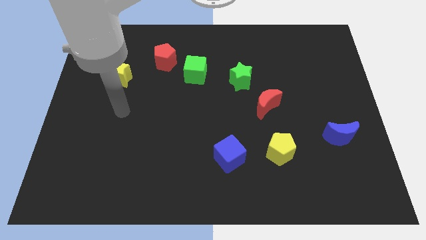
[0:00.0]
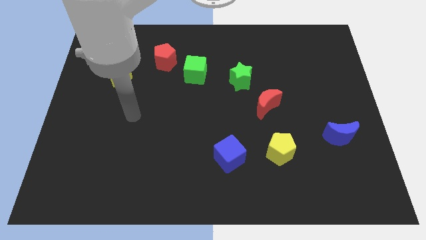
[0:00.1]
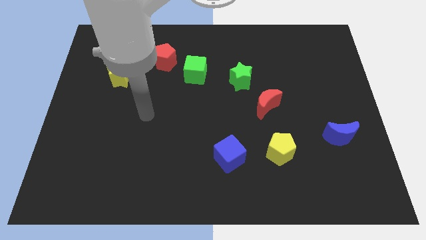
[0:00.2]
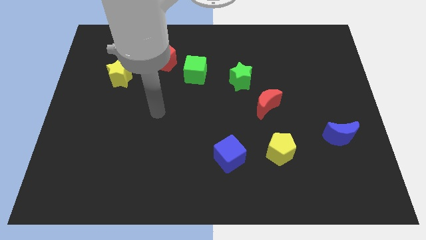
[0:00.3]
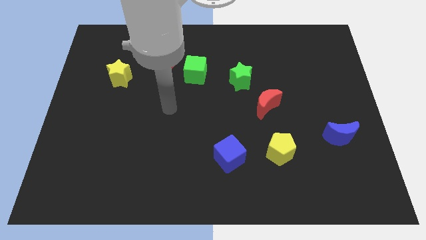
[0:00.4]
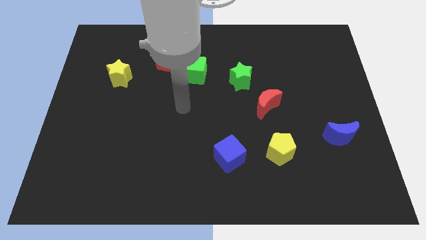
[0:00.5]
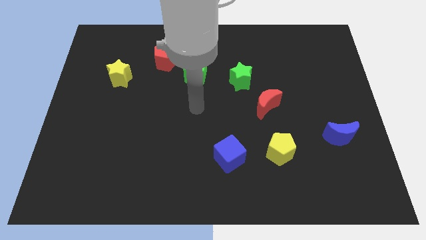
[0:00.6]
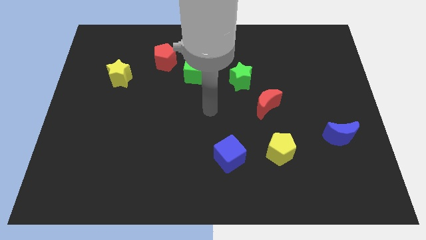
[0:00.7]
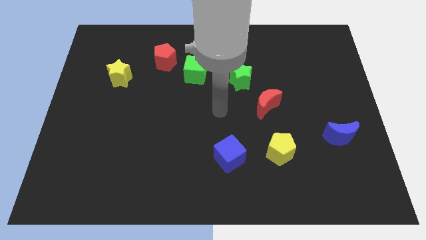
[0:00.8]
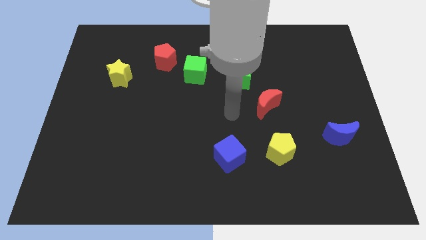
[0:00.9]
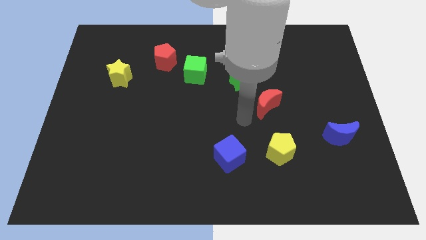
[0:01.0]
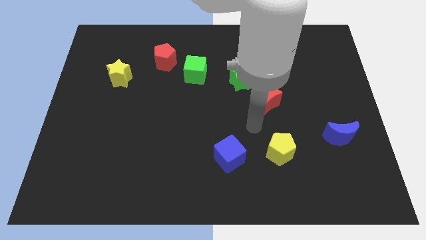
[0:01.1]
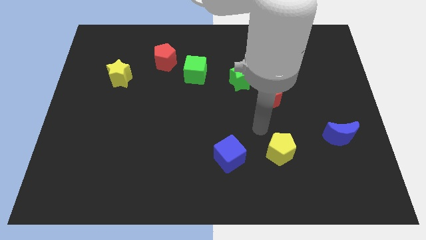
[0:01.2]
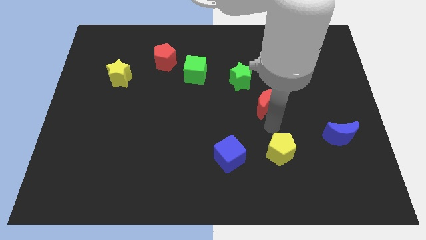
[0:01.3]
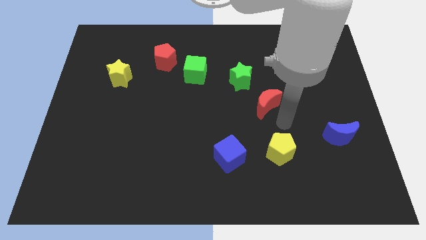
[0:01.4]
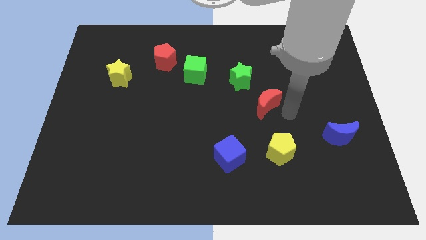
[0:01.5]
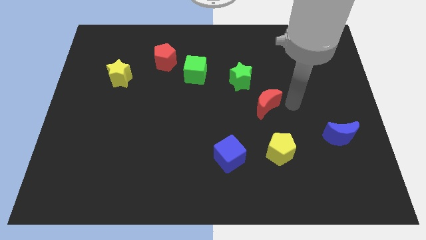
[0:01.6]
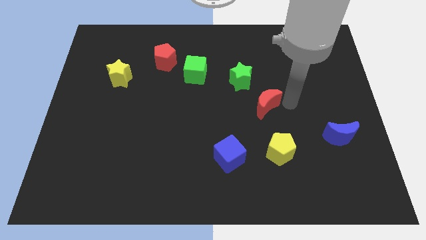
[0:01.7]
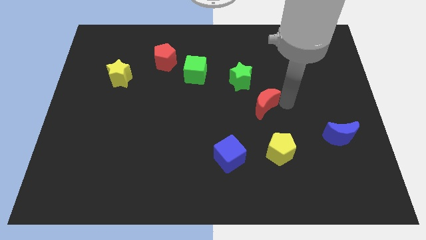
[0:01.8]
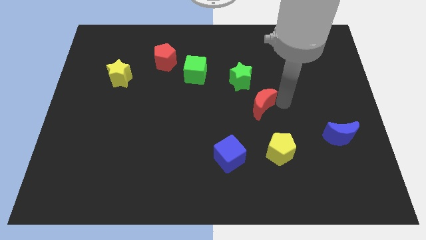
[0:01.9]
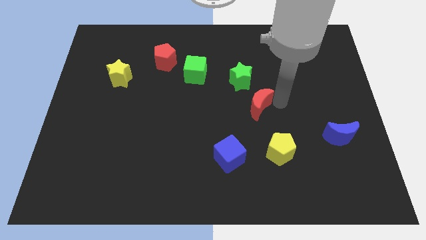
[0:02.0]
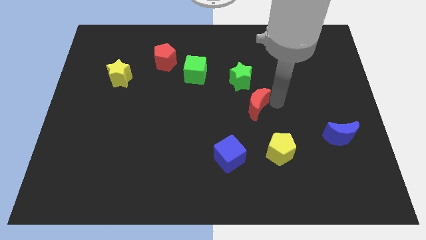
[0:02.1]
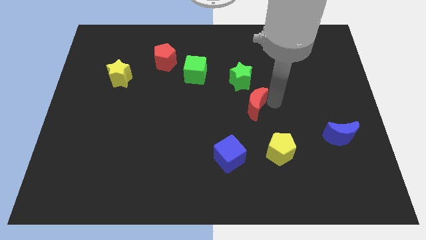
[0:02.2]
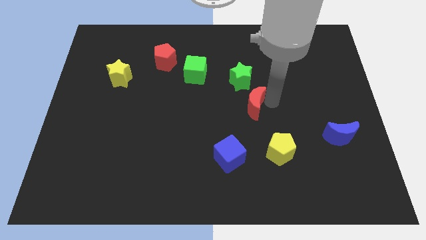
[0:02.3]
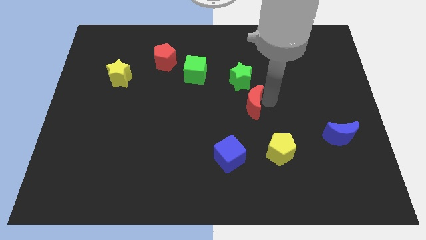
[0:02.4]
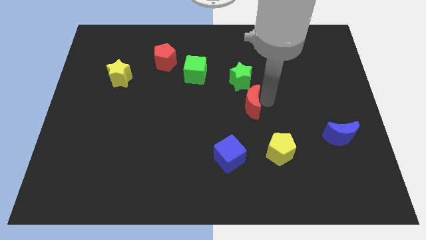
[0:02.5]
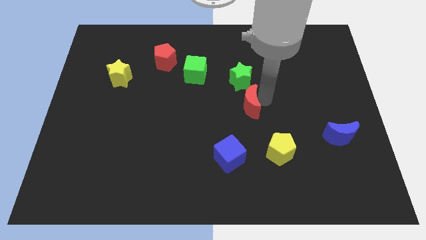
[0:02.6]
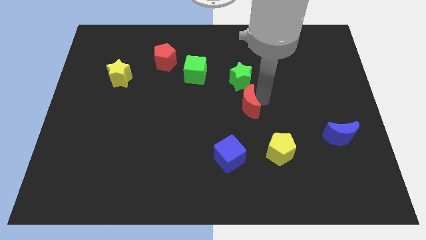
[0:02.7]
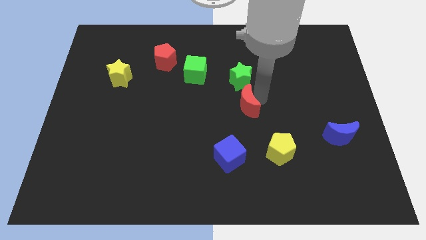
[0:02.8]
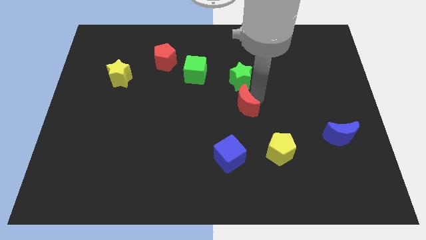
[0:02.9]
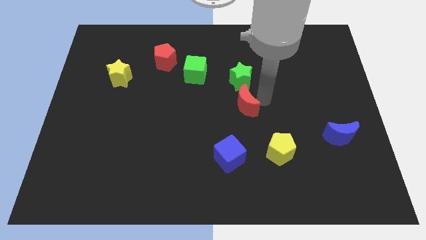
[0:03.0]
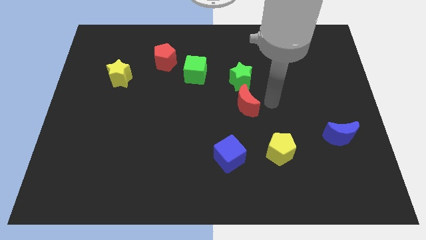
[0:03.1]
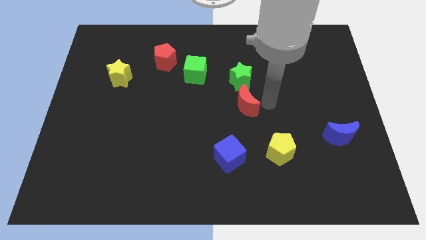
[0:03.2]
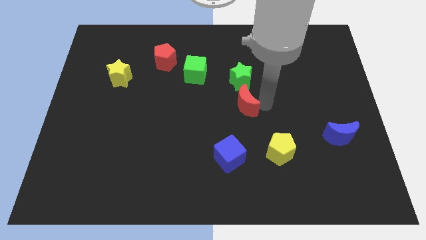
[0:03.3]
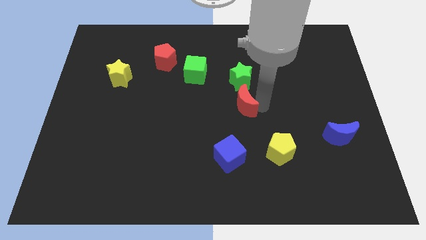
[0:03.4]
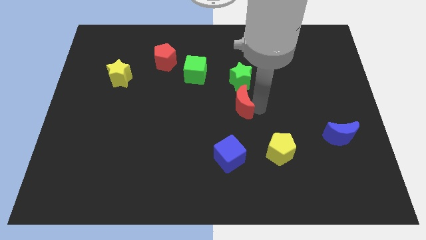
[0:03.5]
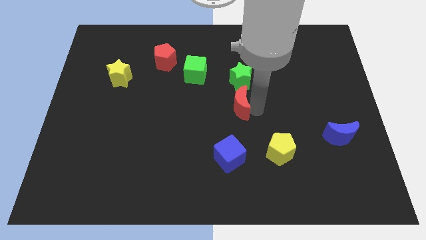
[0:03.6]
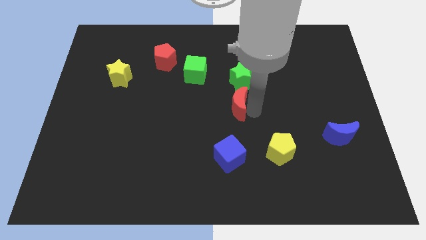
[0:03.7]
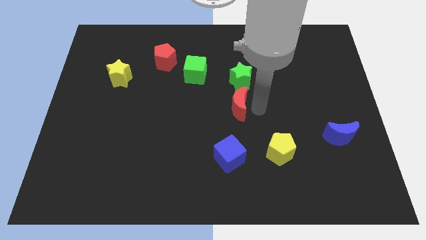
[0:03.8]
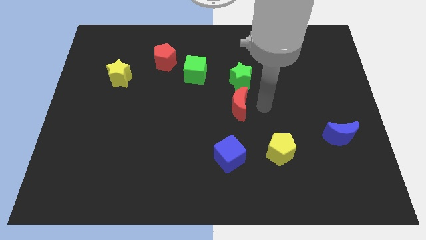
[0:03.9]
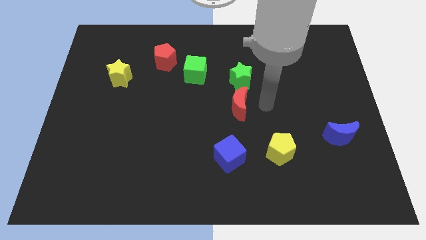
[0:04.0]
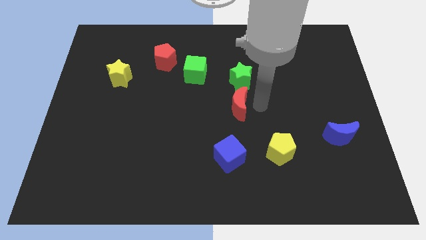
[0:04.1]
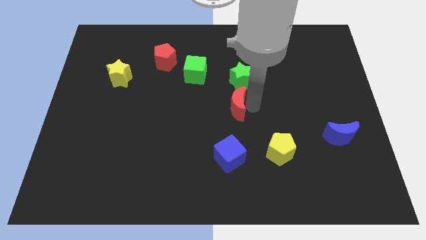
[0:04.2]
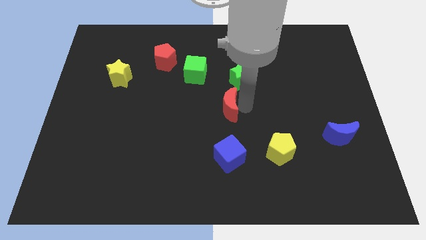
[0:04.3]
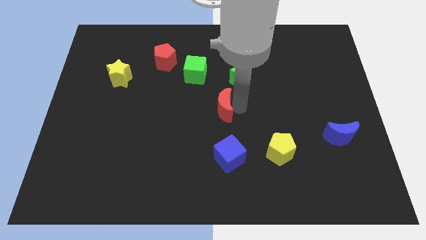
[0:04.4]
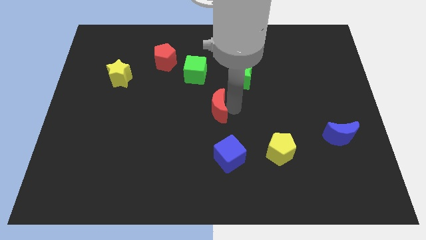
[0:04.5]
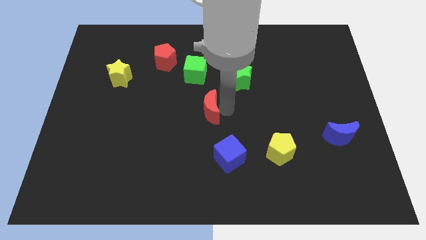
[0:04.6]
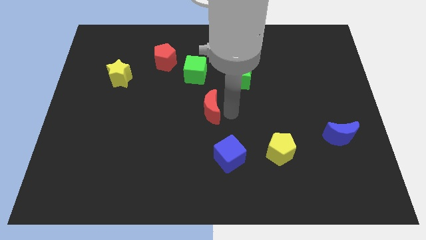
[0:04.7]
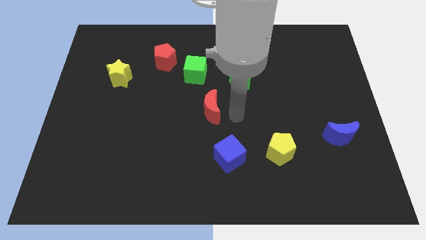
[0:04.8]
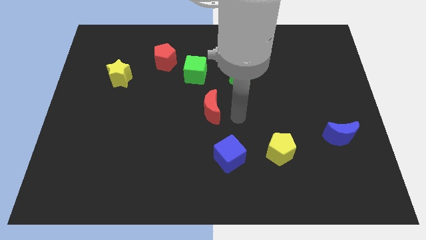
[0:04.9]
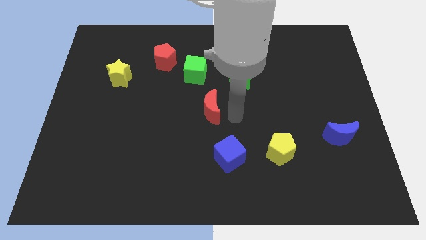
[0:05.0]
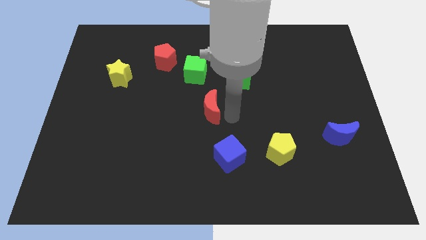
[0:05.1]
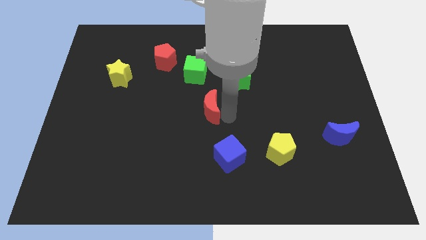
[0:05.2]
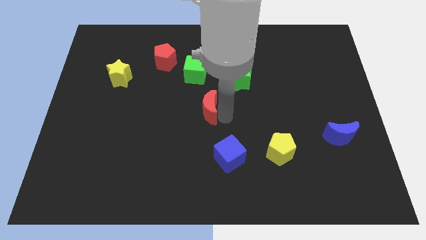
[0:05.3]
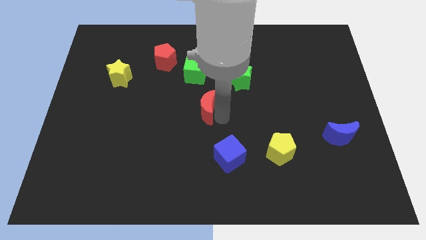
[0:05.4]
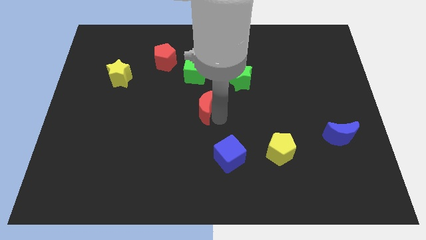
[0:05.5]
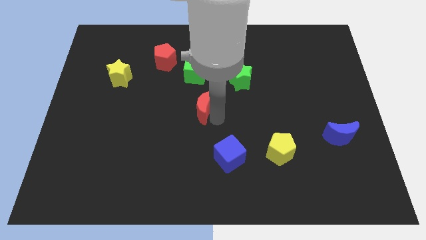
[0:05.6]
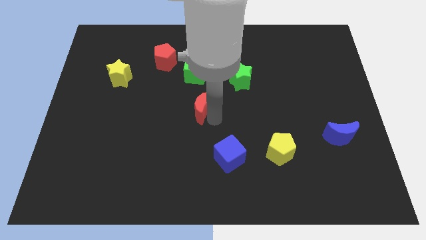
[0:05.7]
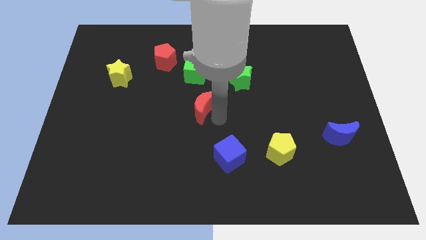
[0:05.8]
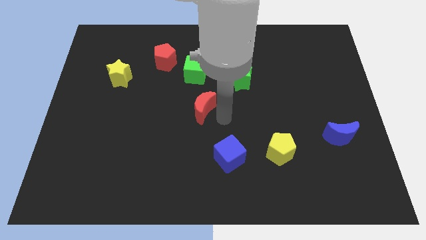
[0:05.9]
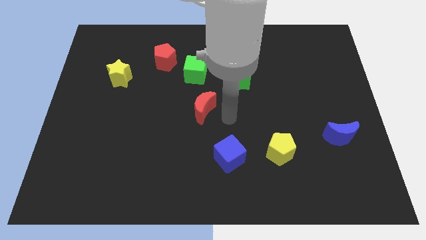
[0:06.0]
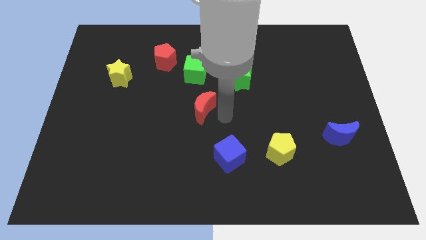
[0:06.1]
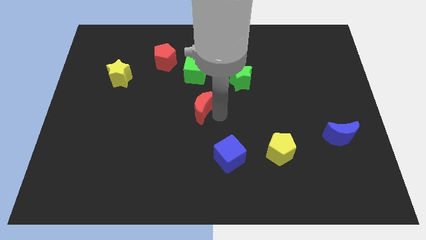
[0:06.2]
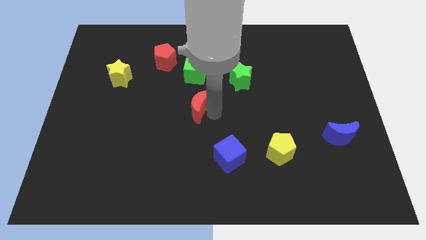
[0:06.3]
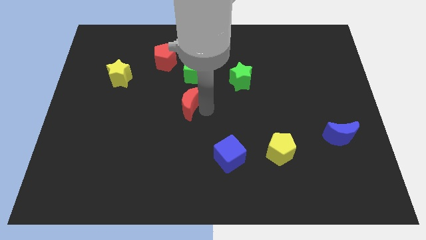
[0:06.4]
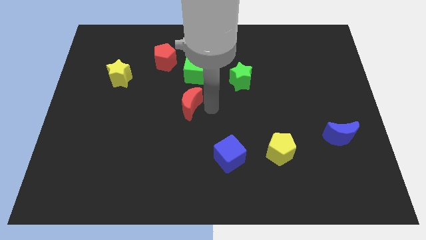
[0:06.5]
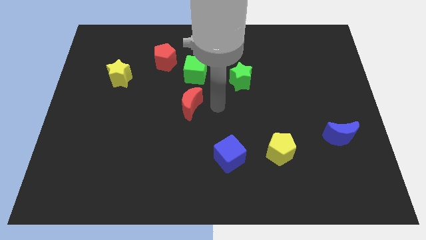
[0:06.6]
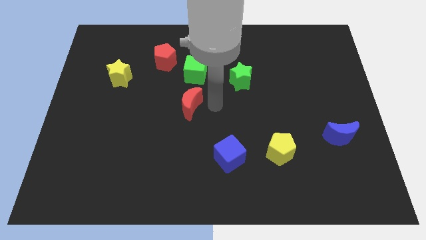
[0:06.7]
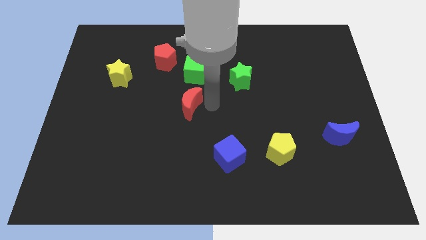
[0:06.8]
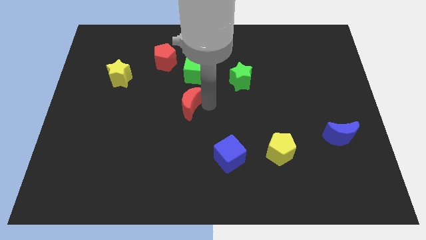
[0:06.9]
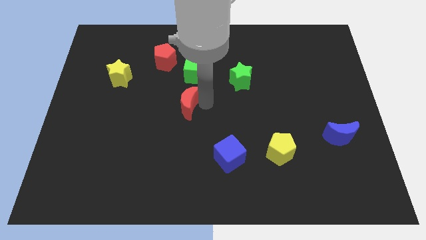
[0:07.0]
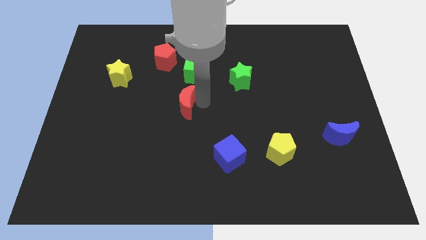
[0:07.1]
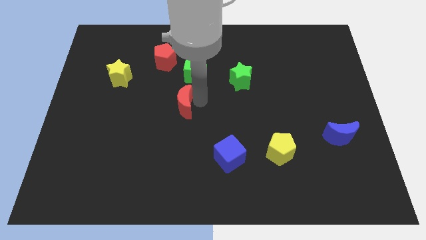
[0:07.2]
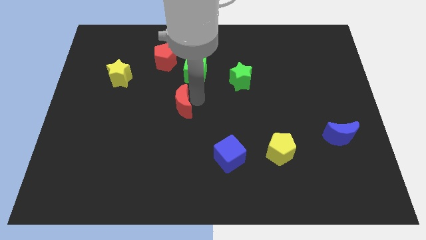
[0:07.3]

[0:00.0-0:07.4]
move the red moon to the left

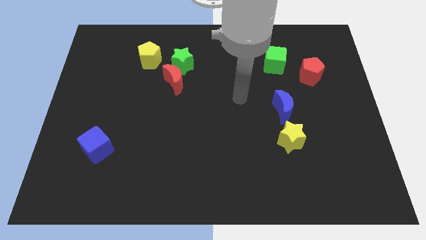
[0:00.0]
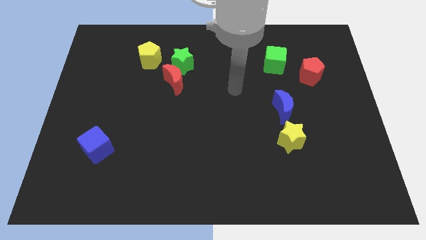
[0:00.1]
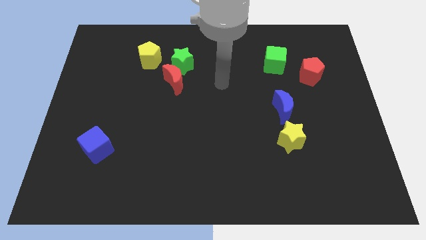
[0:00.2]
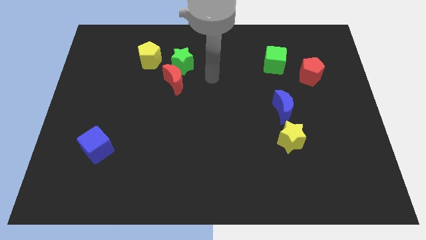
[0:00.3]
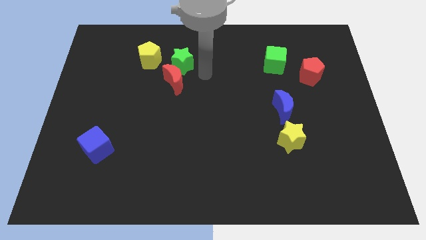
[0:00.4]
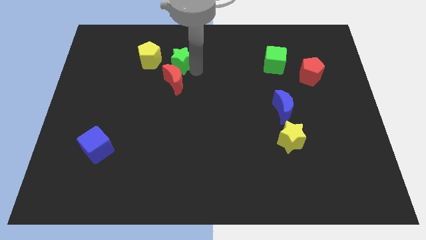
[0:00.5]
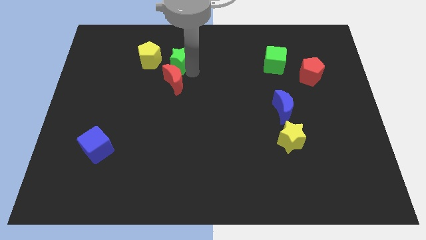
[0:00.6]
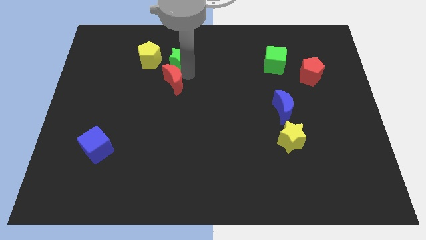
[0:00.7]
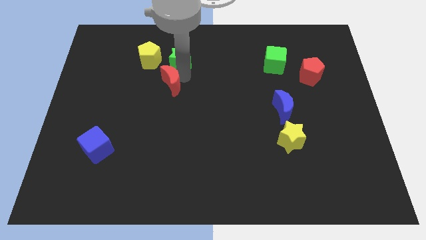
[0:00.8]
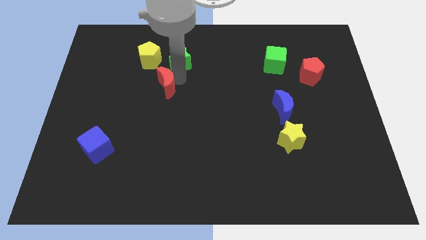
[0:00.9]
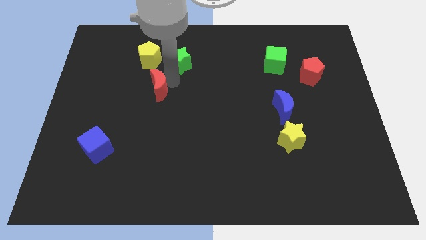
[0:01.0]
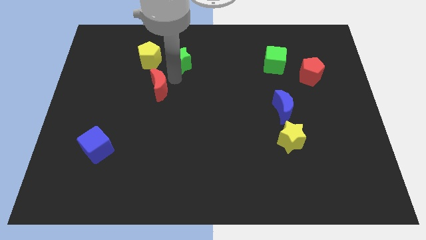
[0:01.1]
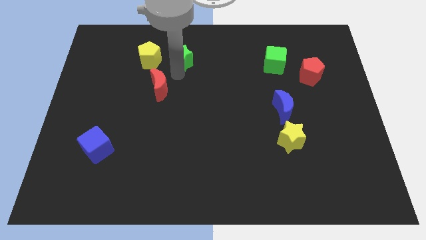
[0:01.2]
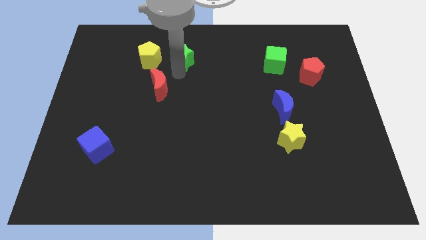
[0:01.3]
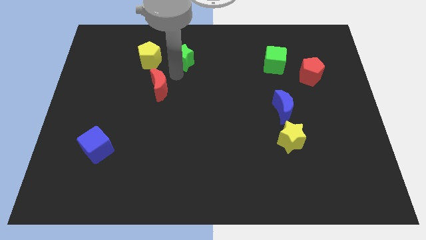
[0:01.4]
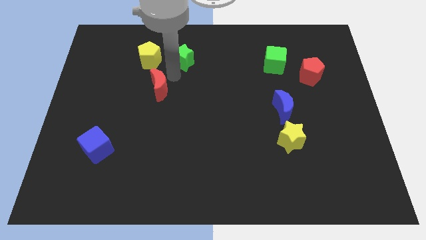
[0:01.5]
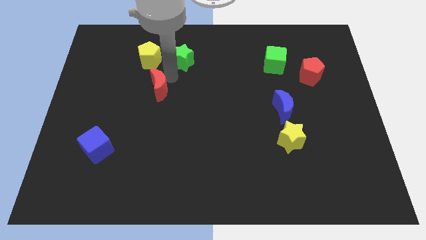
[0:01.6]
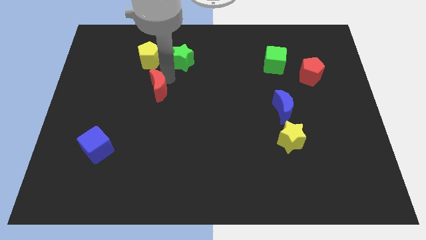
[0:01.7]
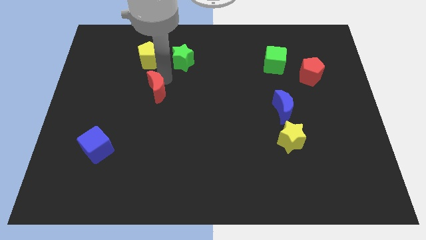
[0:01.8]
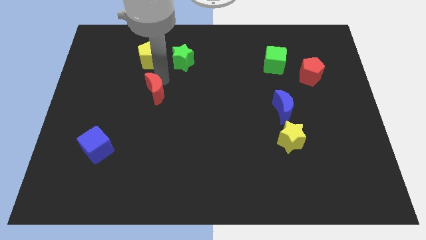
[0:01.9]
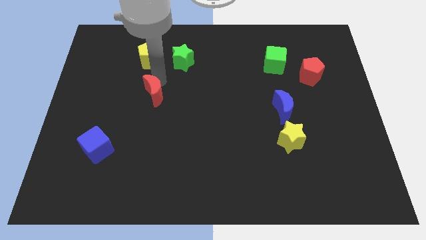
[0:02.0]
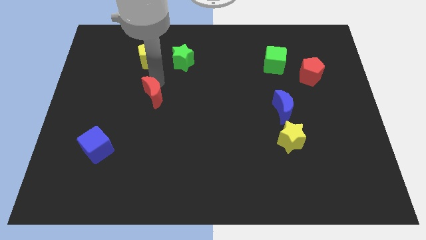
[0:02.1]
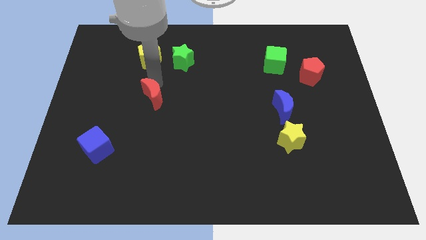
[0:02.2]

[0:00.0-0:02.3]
slightly slide the red moon diagonally down and left
